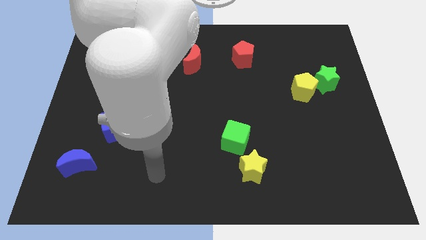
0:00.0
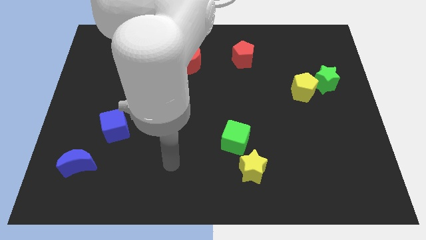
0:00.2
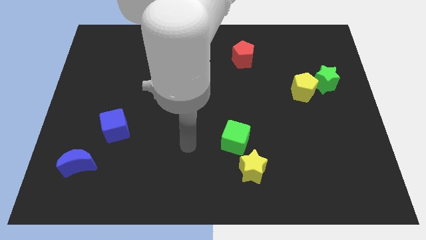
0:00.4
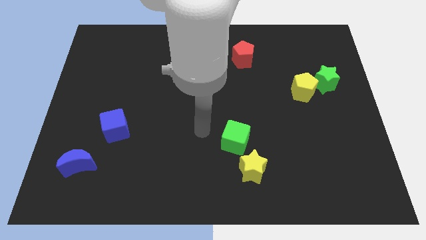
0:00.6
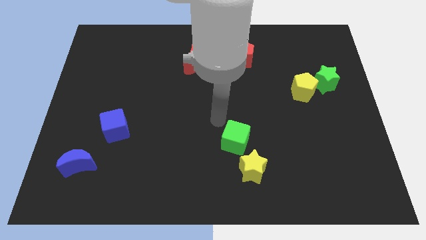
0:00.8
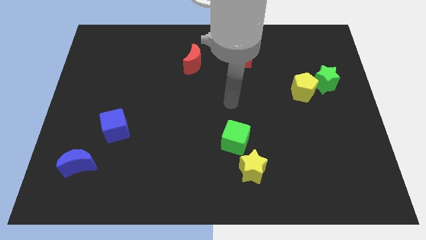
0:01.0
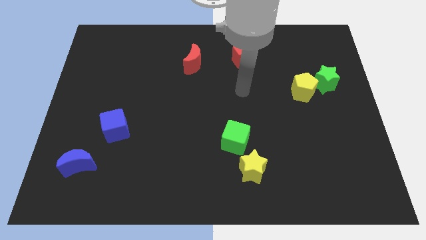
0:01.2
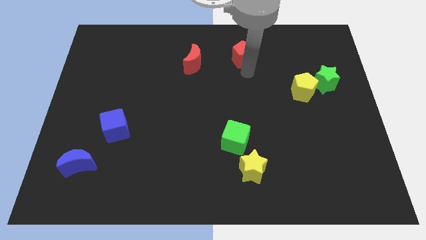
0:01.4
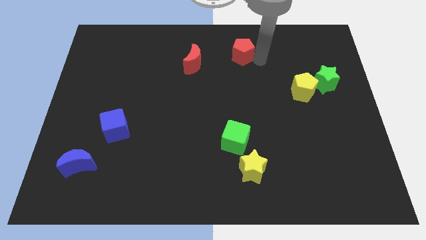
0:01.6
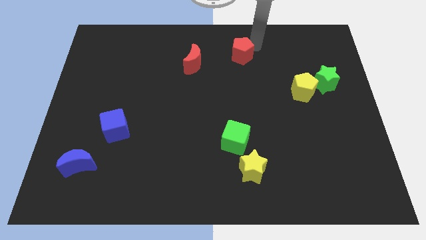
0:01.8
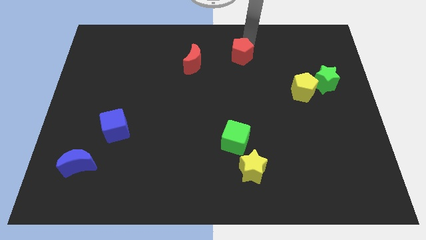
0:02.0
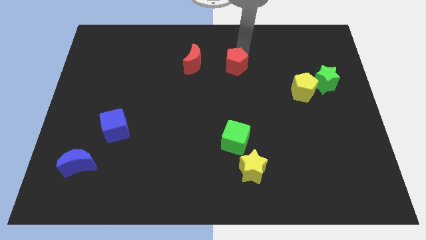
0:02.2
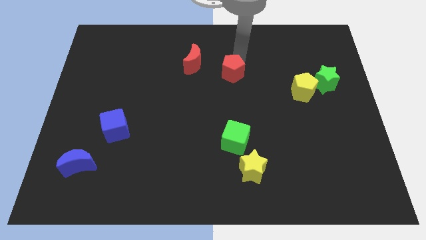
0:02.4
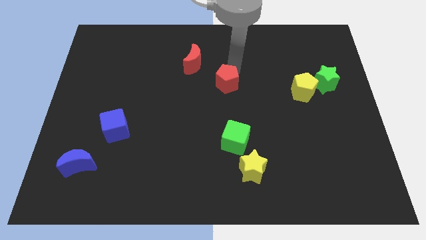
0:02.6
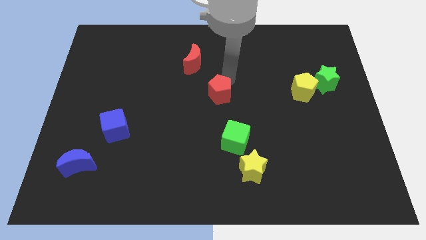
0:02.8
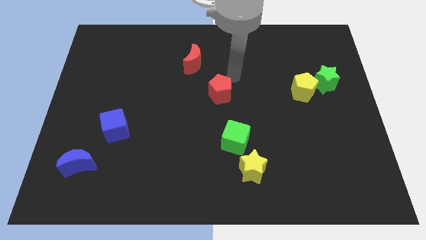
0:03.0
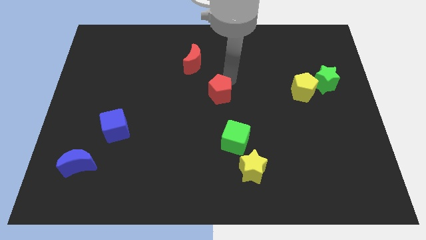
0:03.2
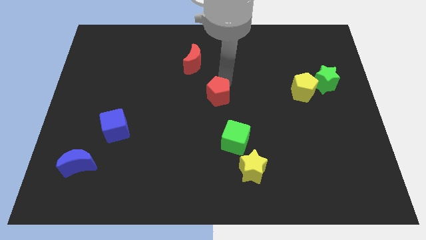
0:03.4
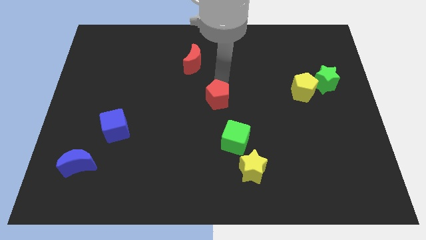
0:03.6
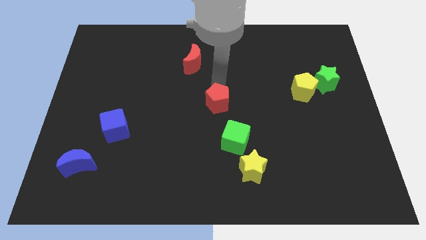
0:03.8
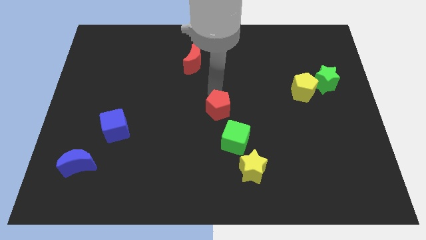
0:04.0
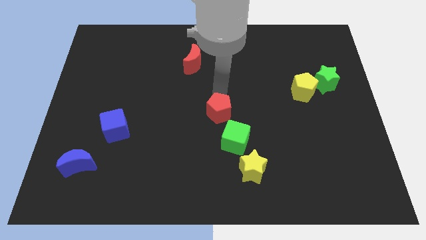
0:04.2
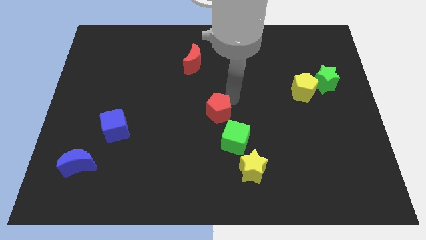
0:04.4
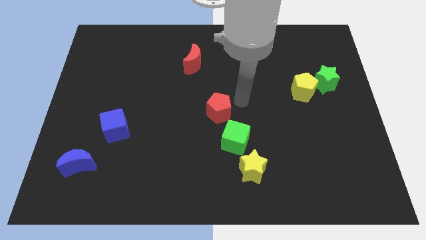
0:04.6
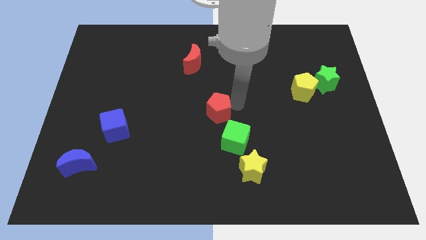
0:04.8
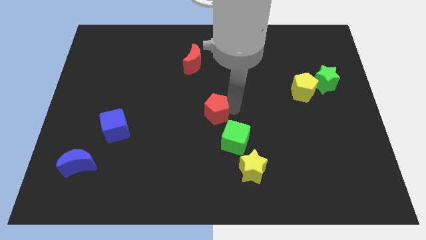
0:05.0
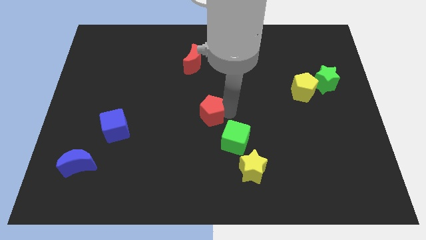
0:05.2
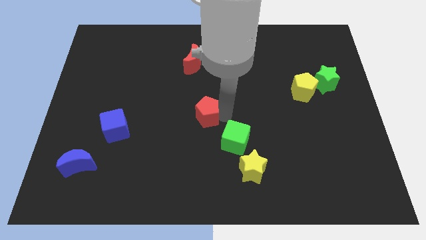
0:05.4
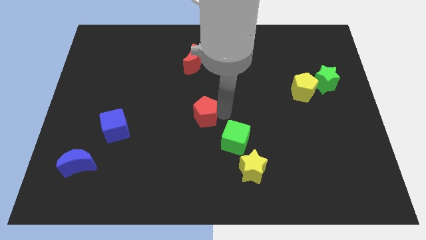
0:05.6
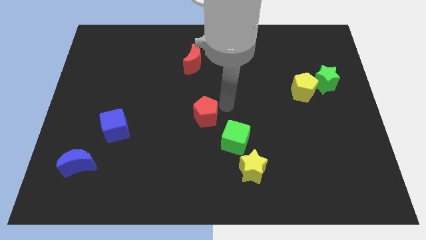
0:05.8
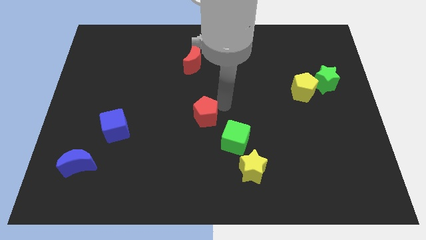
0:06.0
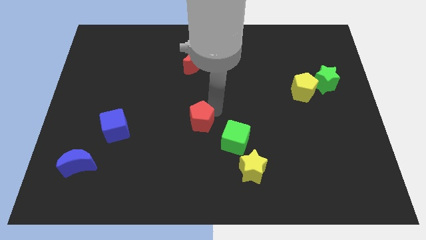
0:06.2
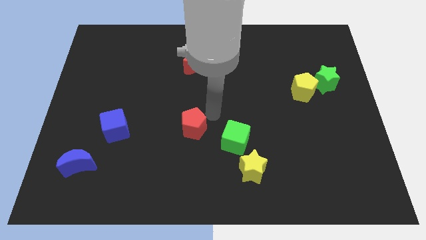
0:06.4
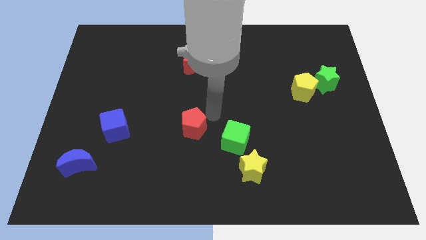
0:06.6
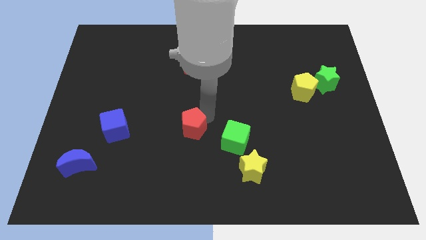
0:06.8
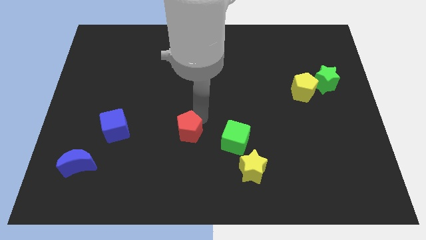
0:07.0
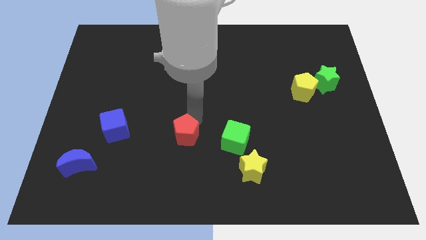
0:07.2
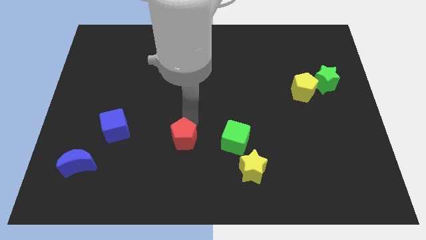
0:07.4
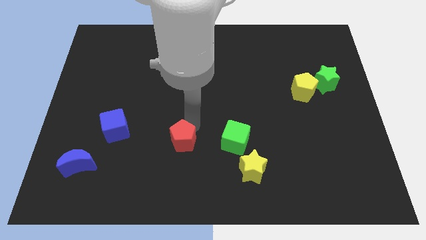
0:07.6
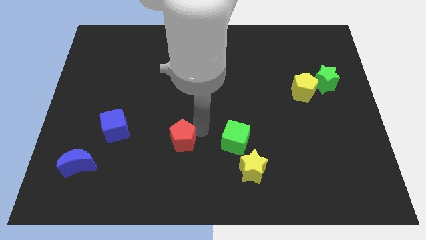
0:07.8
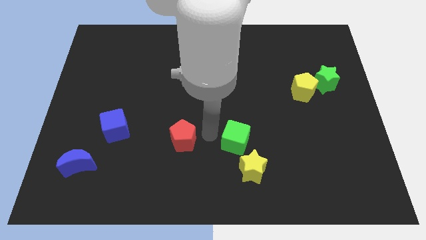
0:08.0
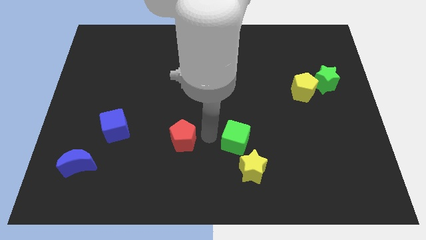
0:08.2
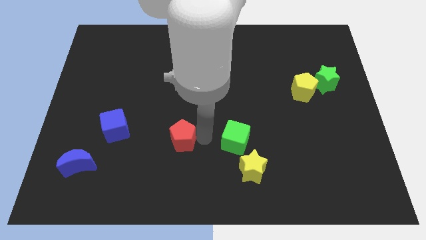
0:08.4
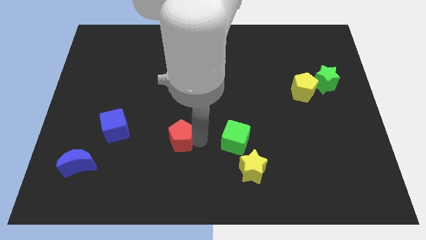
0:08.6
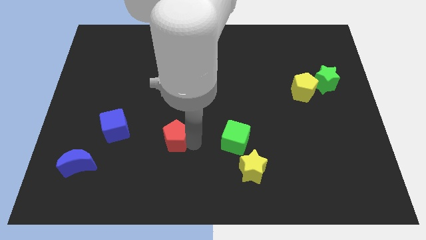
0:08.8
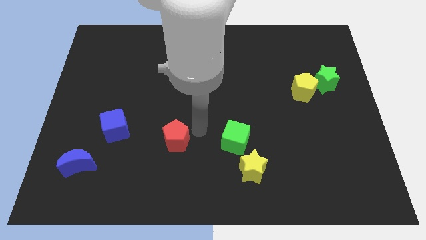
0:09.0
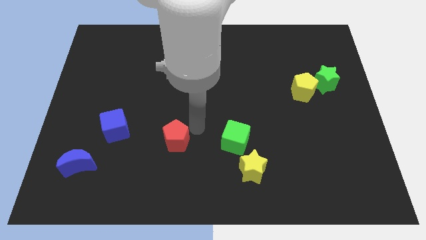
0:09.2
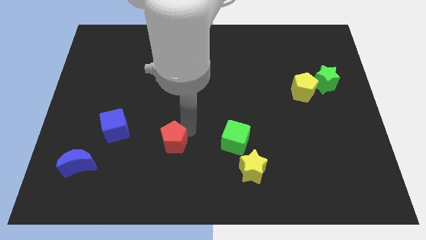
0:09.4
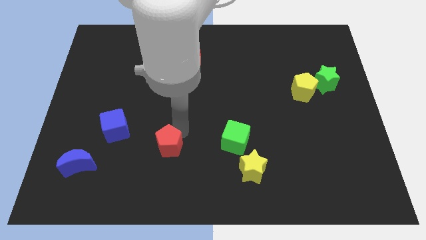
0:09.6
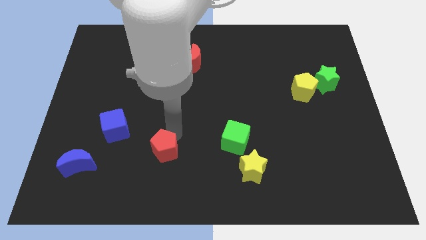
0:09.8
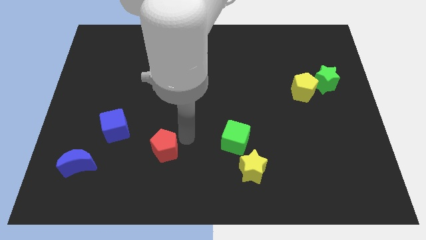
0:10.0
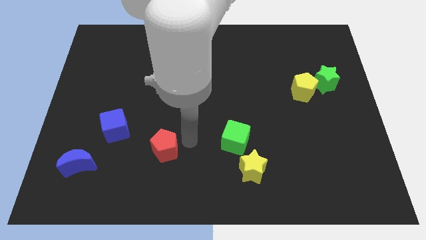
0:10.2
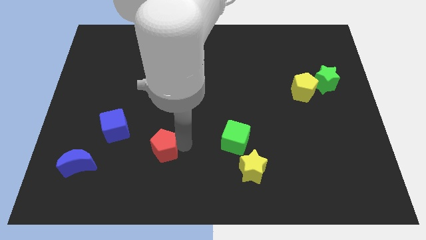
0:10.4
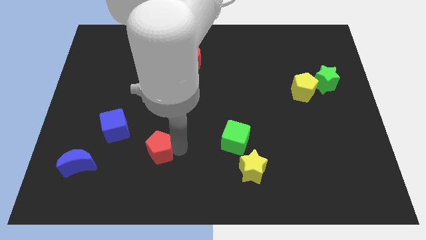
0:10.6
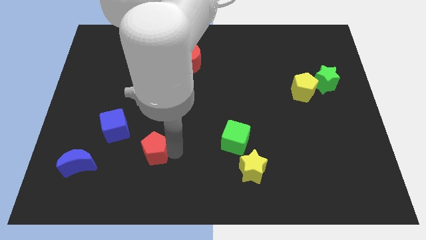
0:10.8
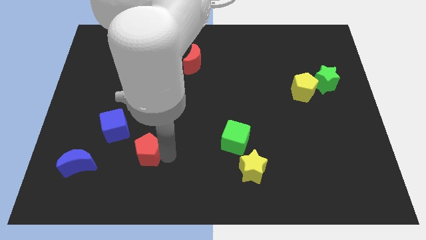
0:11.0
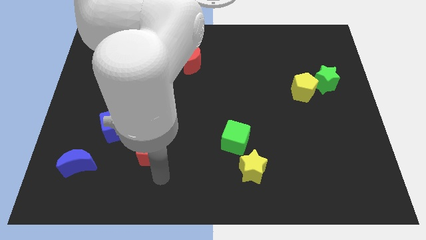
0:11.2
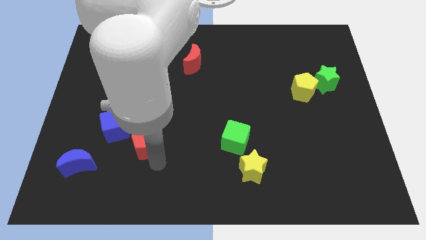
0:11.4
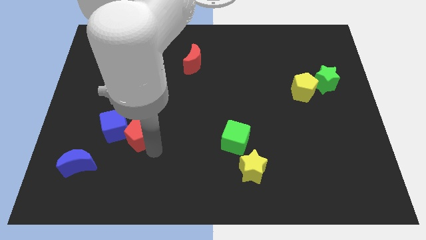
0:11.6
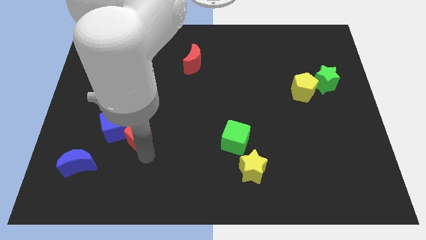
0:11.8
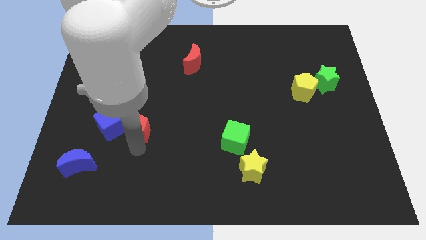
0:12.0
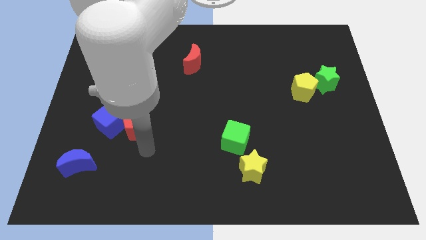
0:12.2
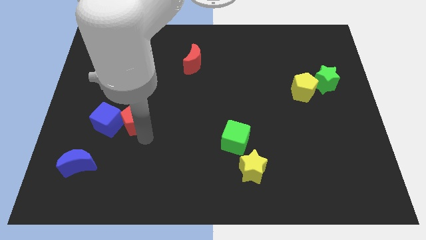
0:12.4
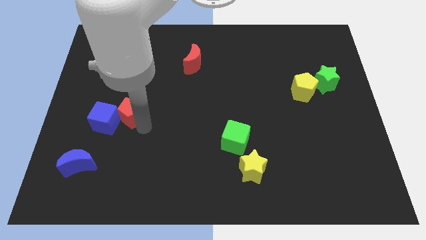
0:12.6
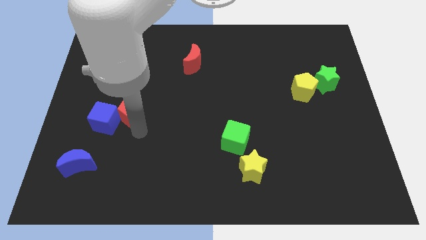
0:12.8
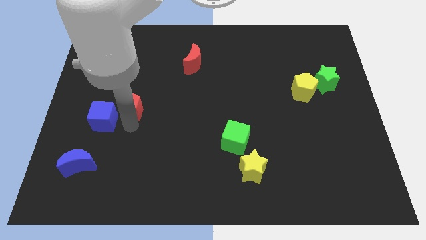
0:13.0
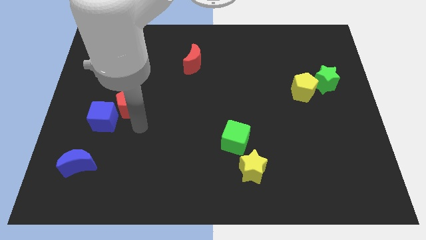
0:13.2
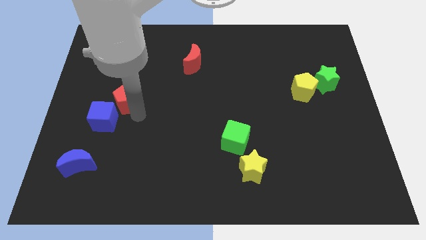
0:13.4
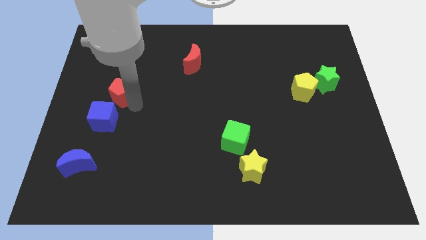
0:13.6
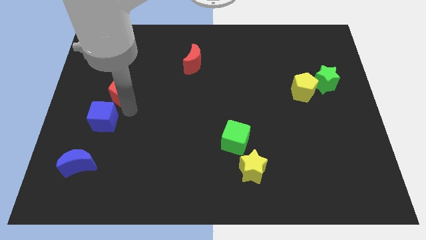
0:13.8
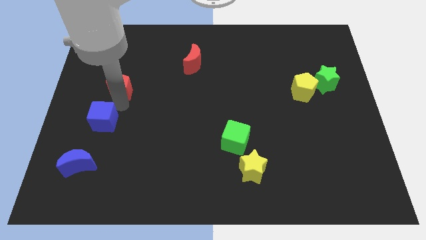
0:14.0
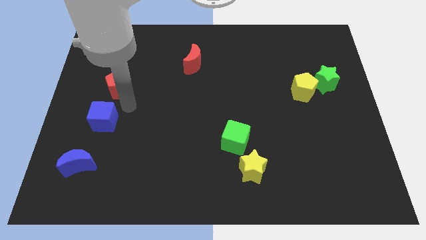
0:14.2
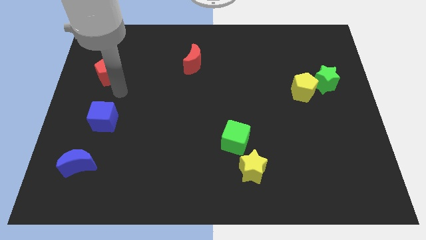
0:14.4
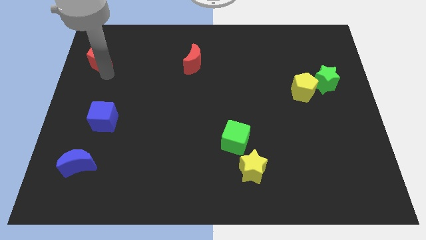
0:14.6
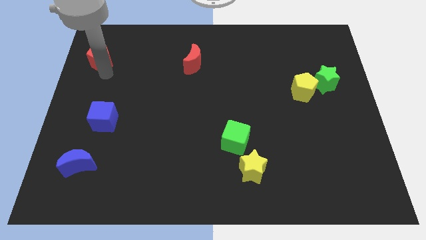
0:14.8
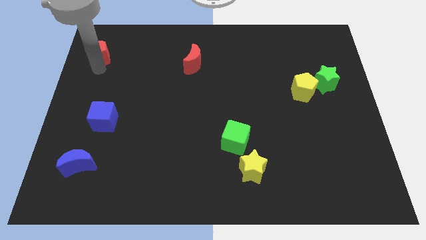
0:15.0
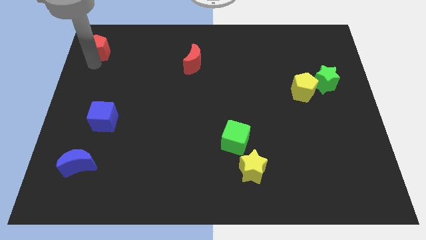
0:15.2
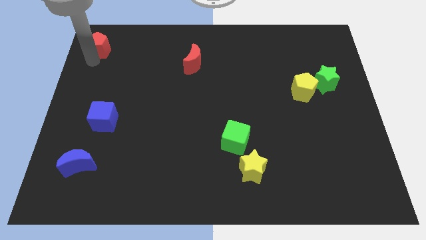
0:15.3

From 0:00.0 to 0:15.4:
push the red pentagon to the upper left corner
